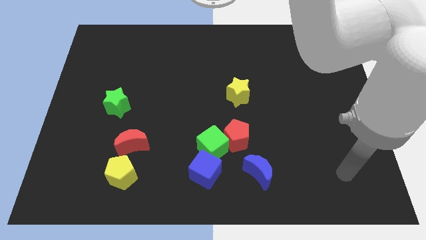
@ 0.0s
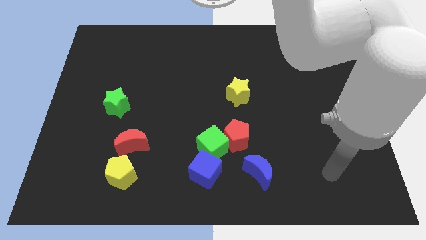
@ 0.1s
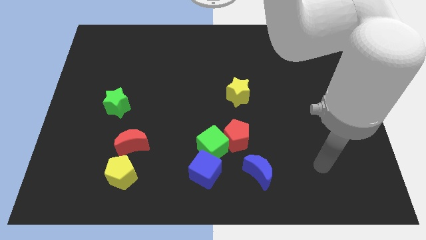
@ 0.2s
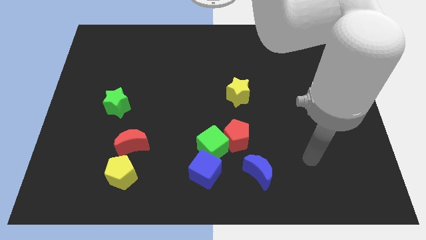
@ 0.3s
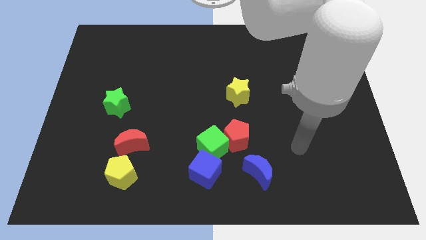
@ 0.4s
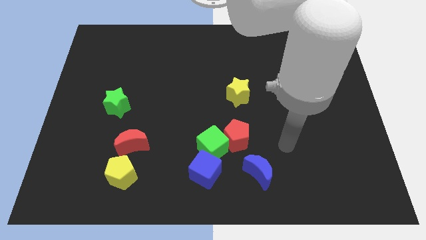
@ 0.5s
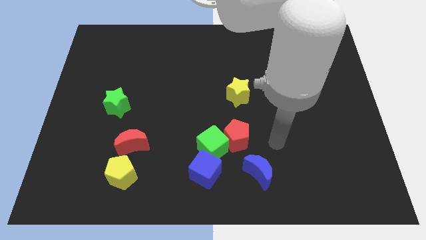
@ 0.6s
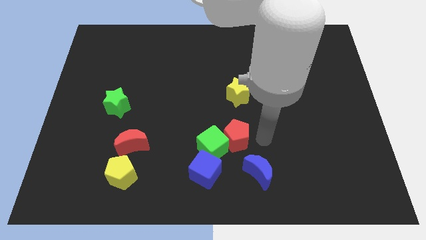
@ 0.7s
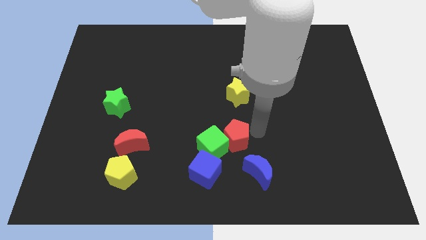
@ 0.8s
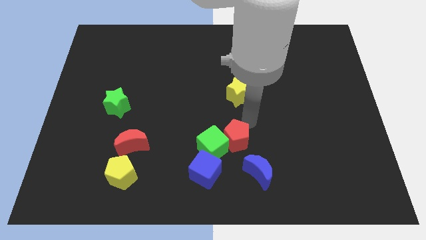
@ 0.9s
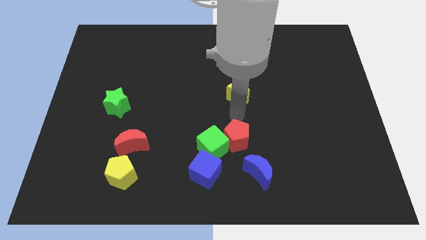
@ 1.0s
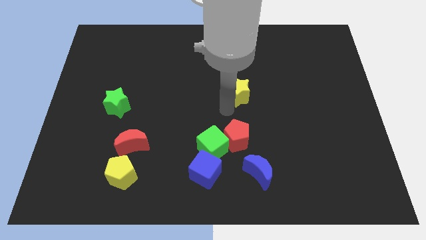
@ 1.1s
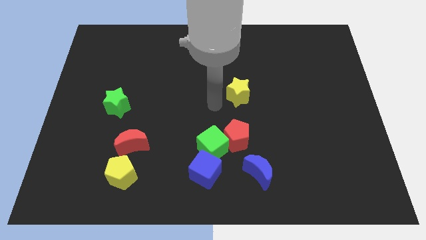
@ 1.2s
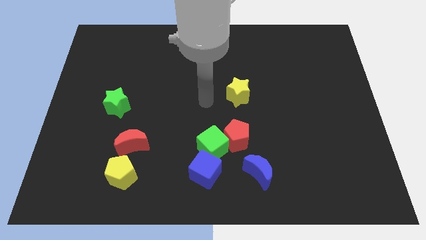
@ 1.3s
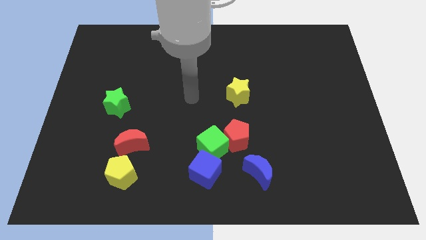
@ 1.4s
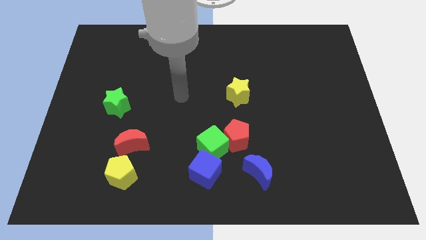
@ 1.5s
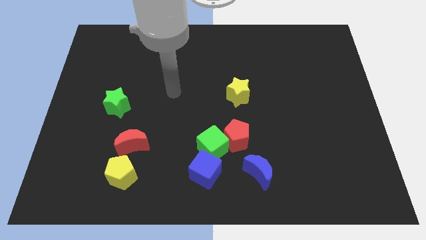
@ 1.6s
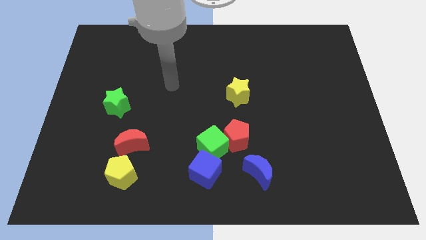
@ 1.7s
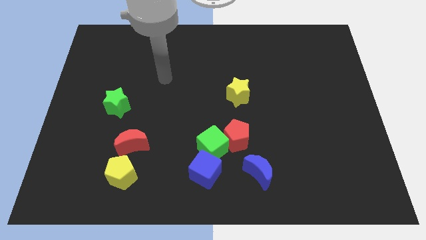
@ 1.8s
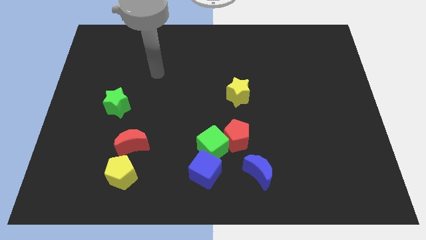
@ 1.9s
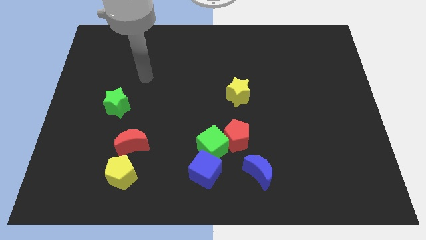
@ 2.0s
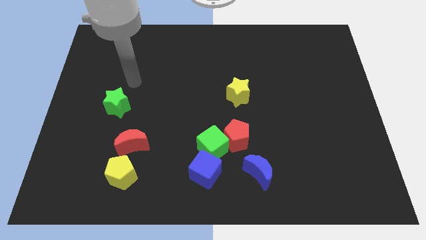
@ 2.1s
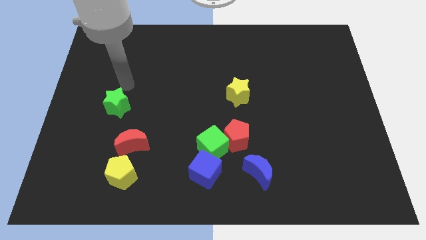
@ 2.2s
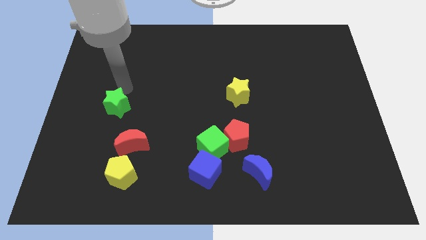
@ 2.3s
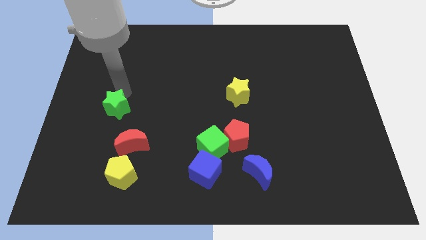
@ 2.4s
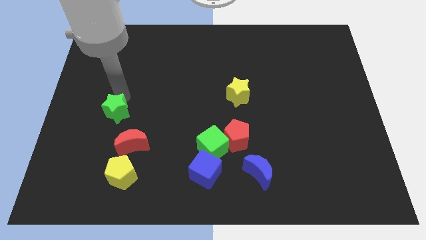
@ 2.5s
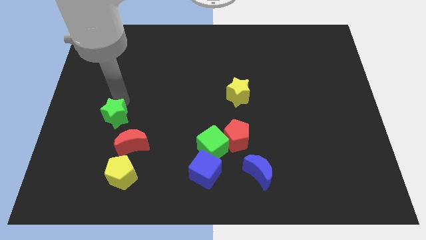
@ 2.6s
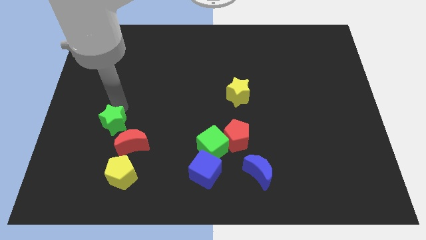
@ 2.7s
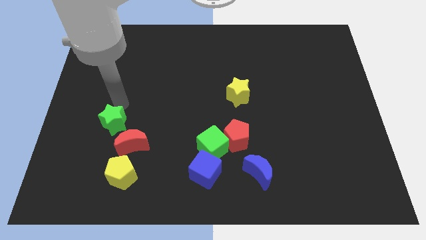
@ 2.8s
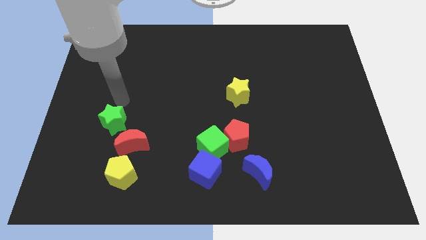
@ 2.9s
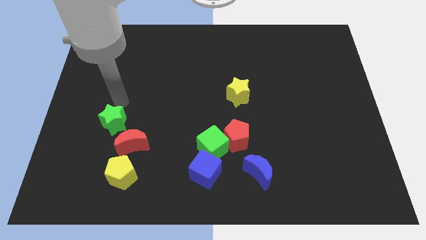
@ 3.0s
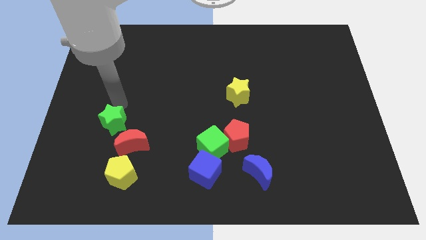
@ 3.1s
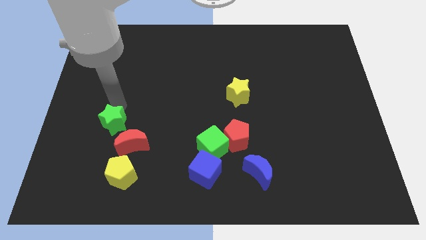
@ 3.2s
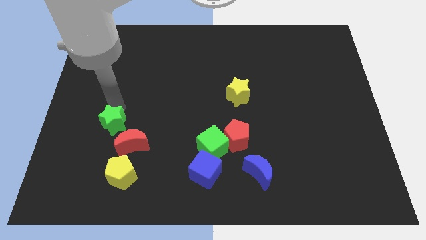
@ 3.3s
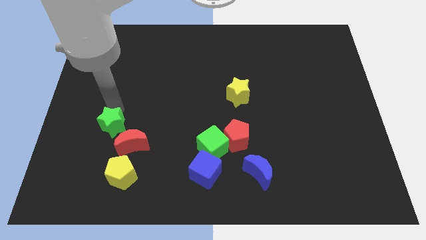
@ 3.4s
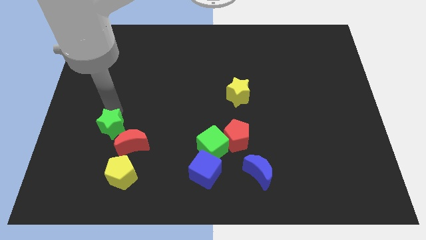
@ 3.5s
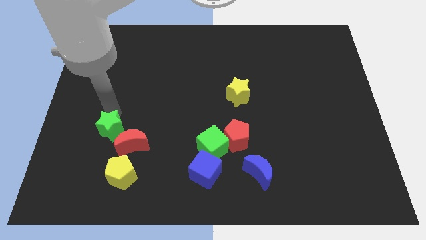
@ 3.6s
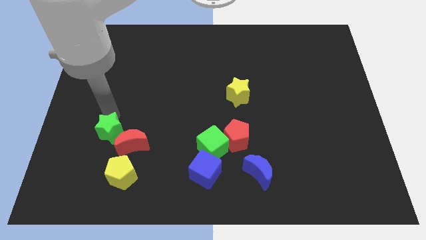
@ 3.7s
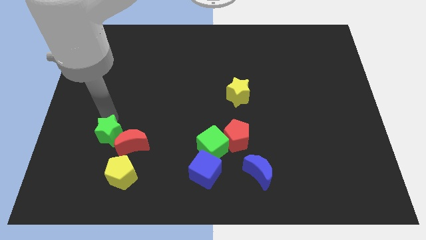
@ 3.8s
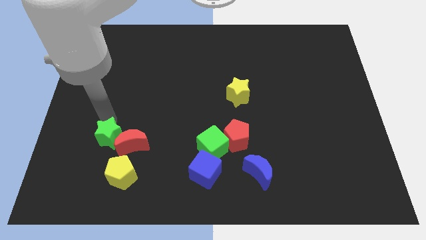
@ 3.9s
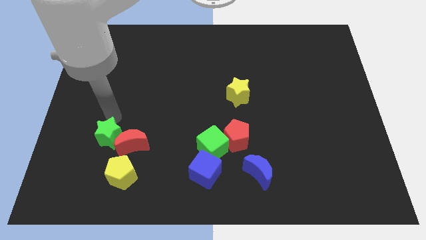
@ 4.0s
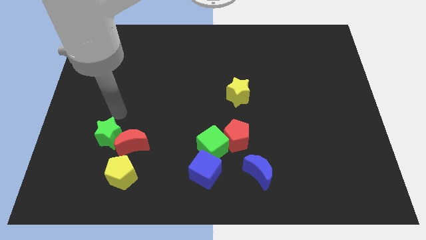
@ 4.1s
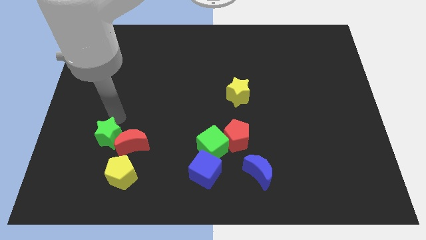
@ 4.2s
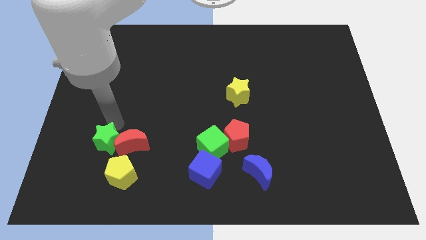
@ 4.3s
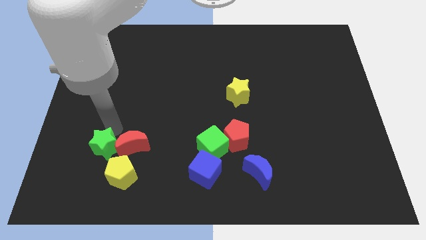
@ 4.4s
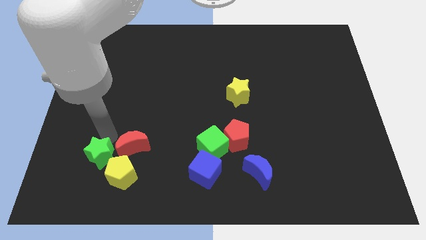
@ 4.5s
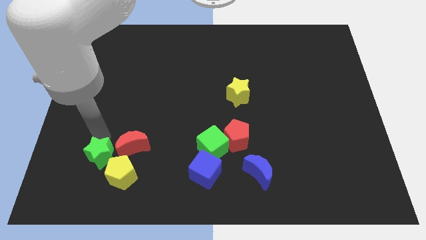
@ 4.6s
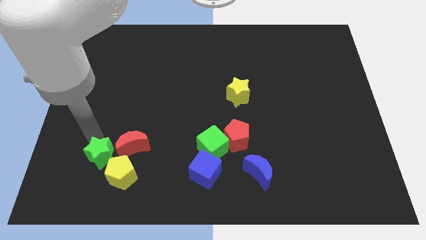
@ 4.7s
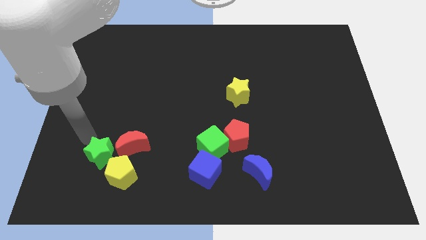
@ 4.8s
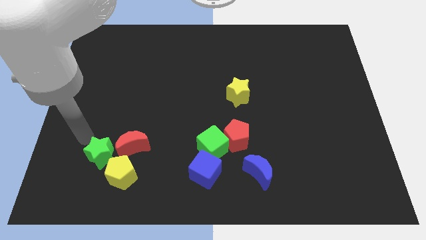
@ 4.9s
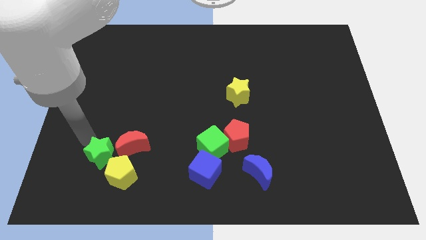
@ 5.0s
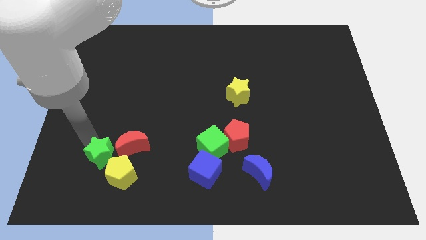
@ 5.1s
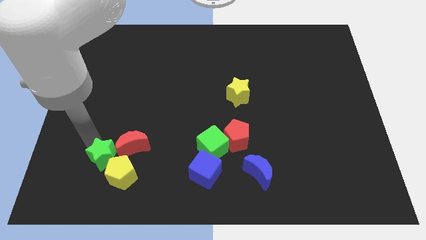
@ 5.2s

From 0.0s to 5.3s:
slide the green star close to the yellow pentagon

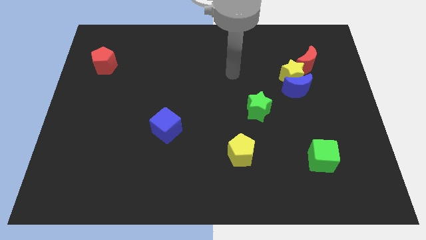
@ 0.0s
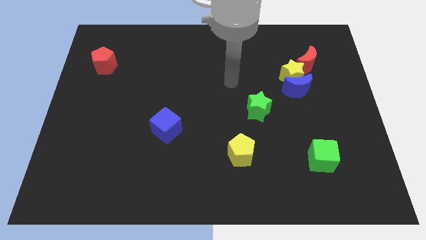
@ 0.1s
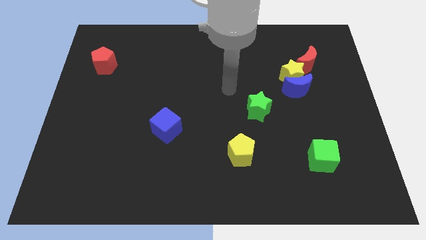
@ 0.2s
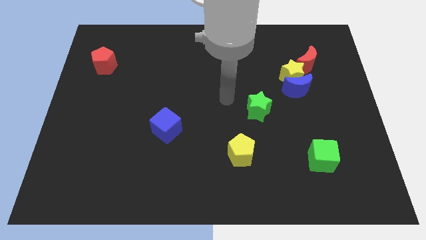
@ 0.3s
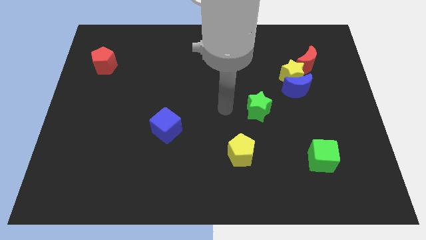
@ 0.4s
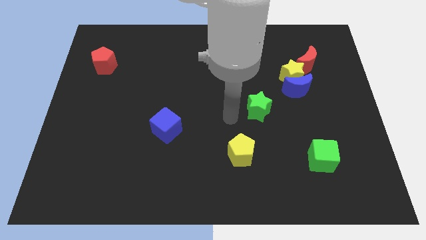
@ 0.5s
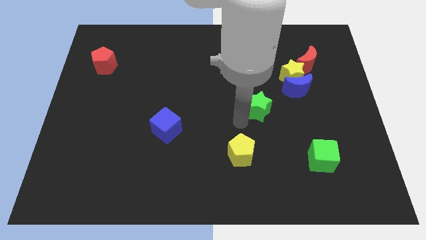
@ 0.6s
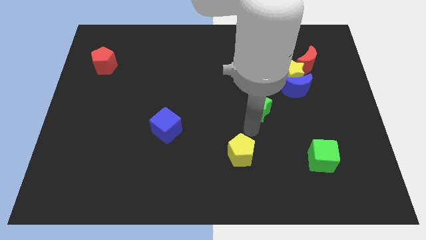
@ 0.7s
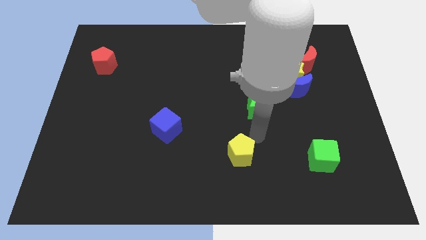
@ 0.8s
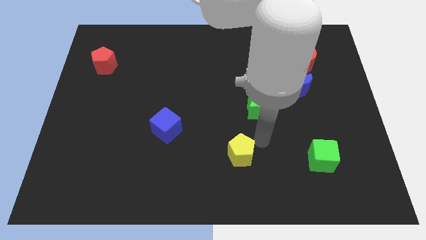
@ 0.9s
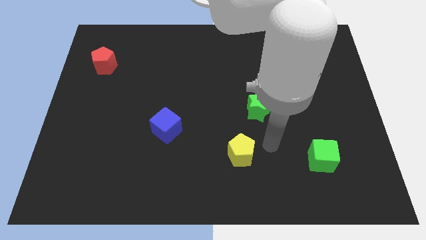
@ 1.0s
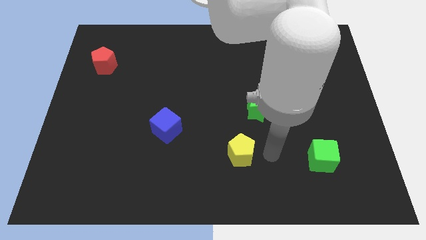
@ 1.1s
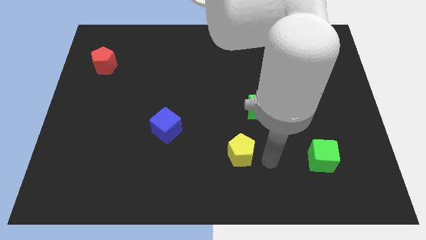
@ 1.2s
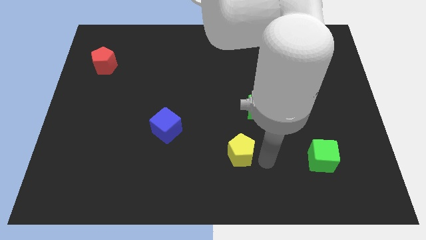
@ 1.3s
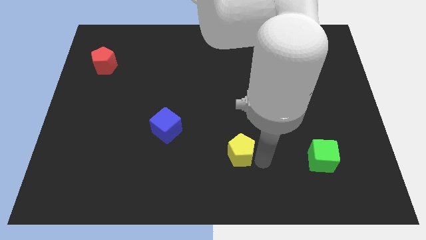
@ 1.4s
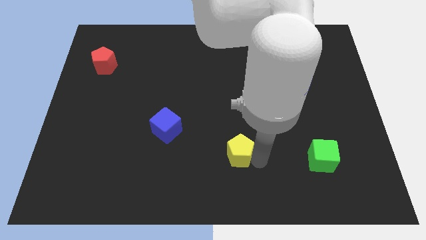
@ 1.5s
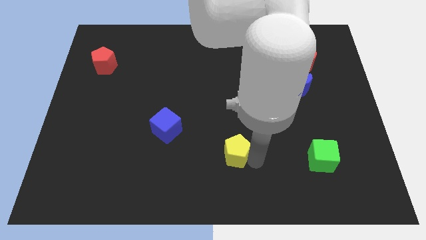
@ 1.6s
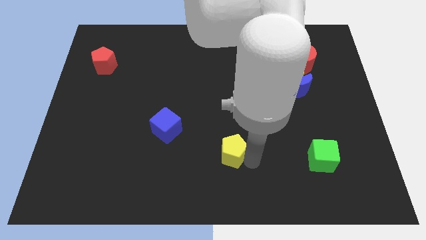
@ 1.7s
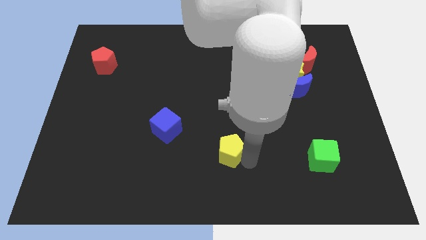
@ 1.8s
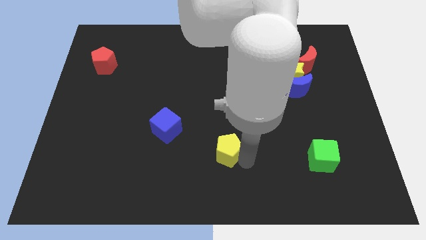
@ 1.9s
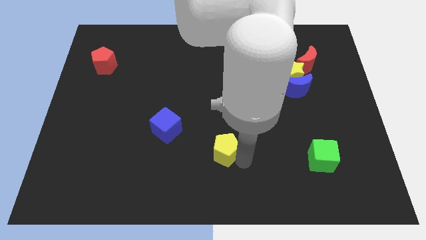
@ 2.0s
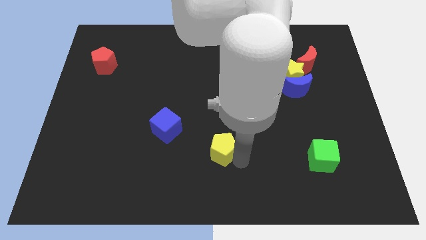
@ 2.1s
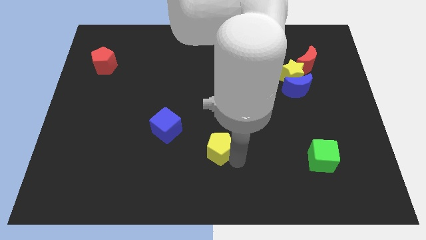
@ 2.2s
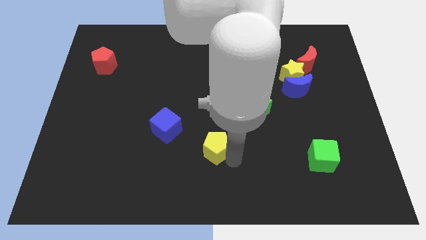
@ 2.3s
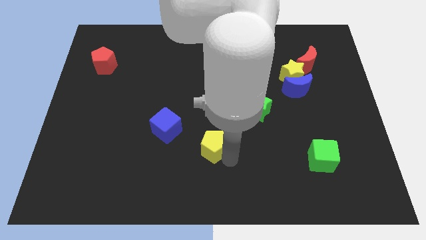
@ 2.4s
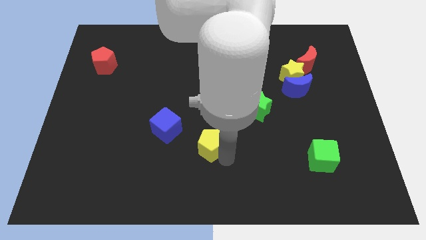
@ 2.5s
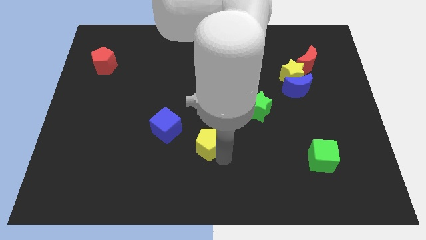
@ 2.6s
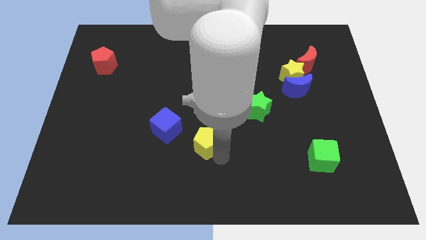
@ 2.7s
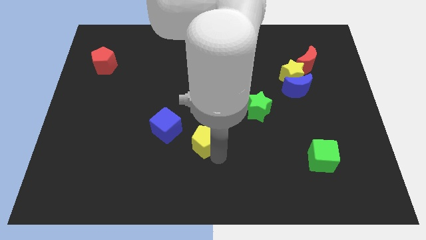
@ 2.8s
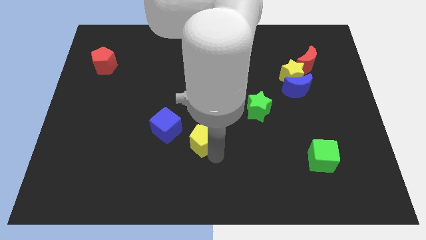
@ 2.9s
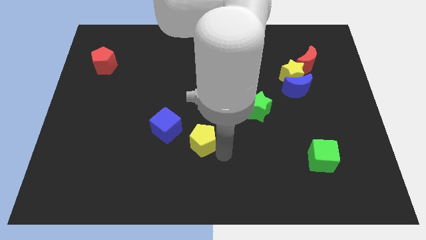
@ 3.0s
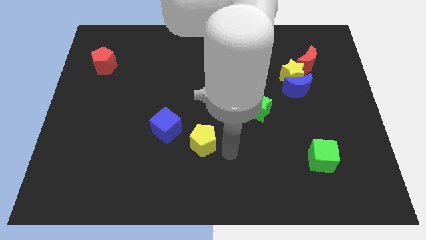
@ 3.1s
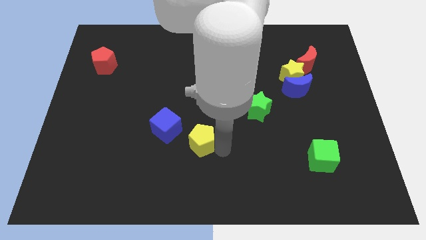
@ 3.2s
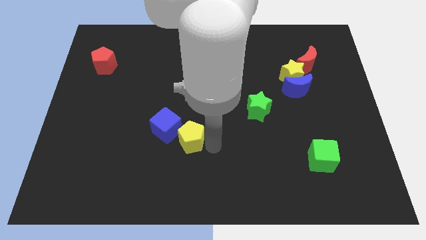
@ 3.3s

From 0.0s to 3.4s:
put the yellow pentagon next to the blue cube
